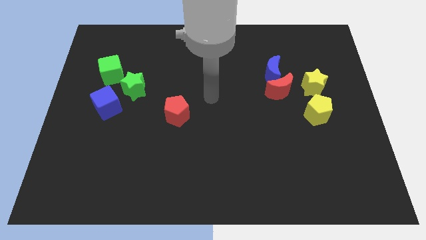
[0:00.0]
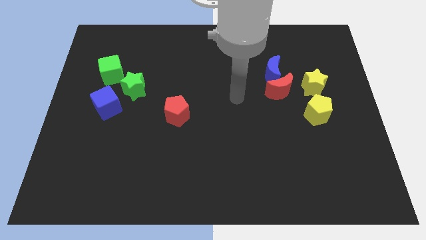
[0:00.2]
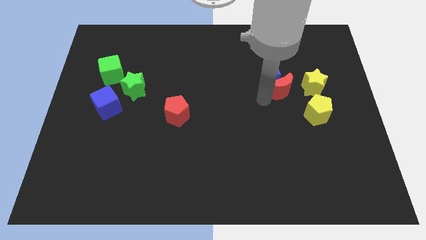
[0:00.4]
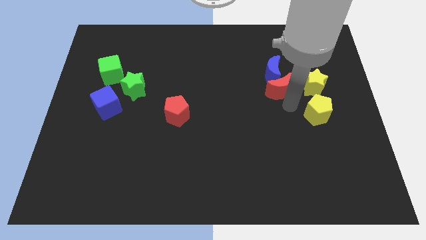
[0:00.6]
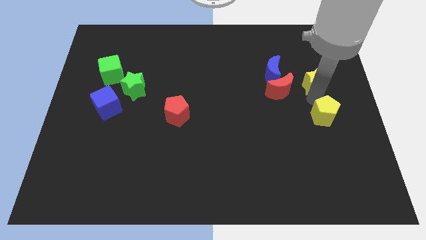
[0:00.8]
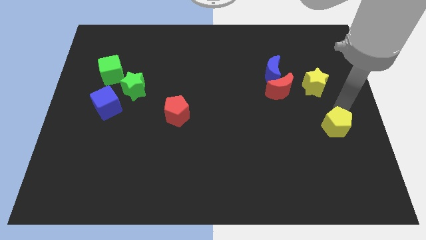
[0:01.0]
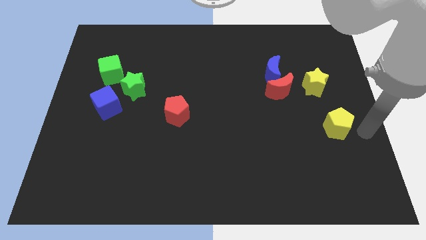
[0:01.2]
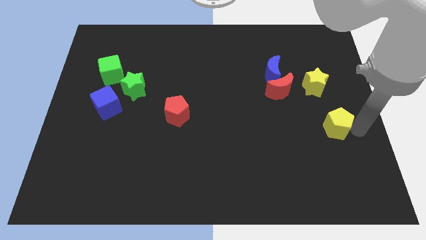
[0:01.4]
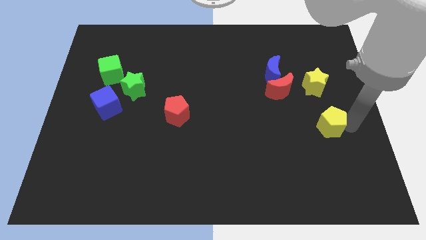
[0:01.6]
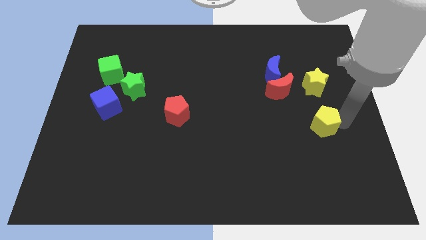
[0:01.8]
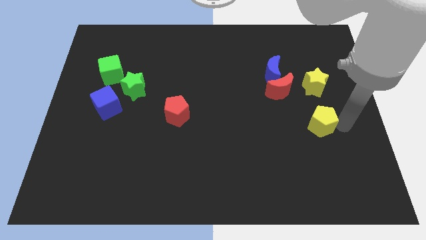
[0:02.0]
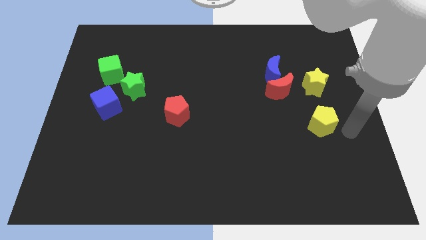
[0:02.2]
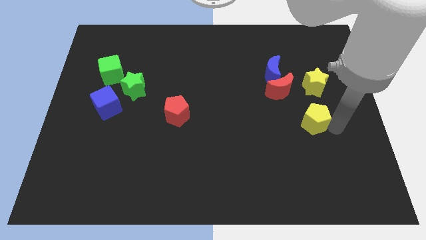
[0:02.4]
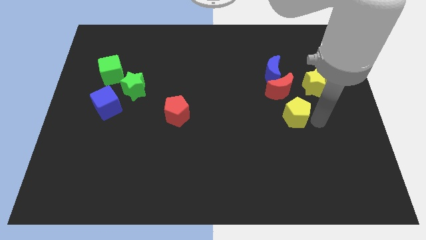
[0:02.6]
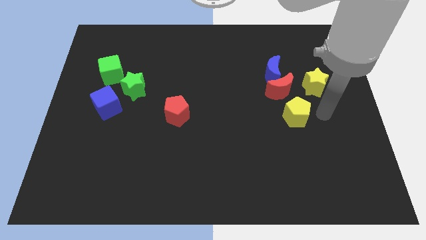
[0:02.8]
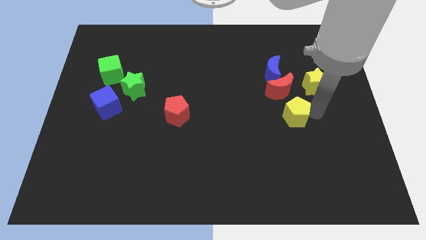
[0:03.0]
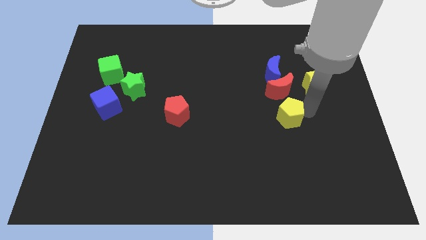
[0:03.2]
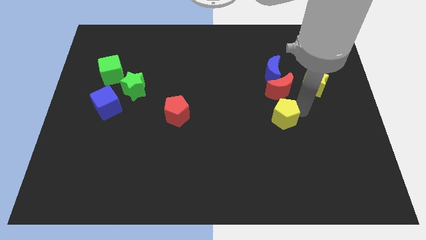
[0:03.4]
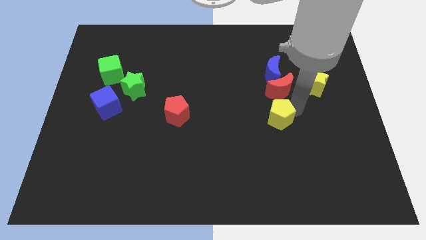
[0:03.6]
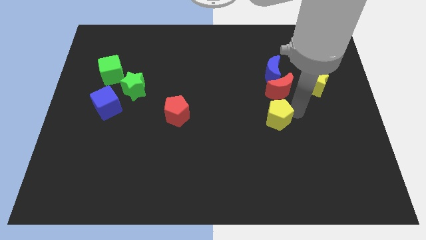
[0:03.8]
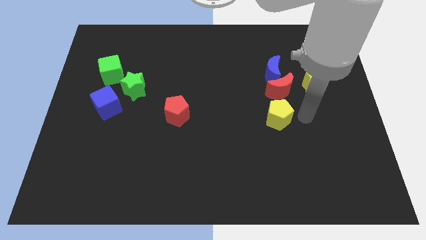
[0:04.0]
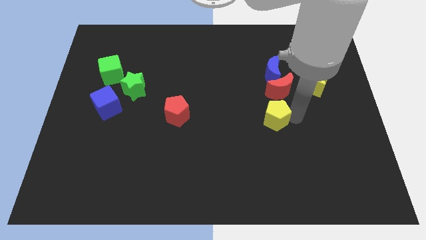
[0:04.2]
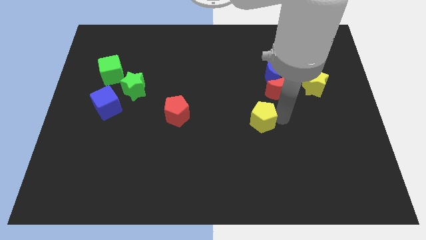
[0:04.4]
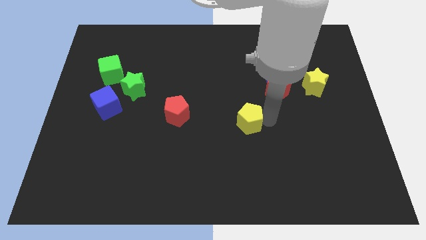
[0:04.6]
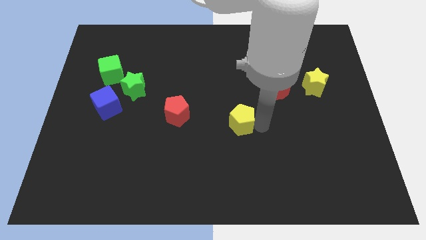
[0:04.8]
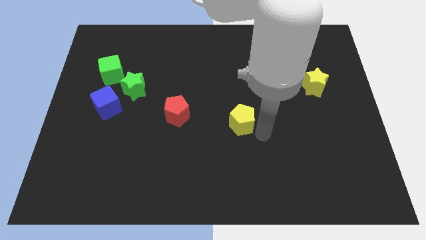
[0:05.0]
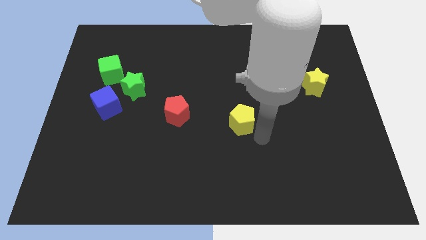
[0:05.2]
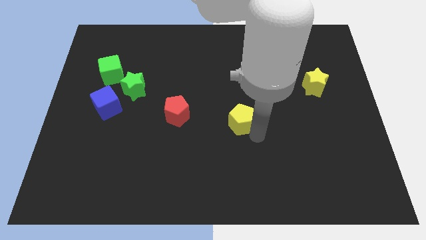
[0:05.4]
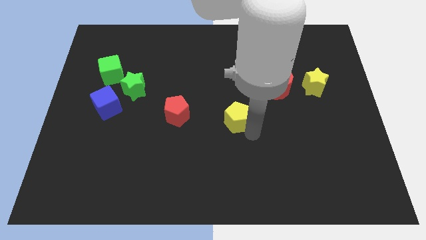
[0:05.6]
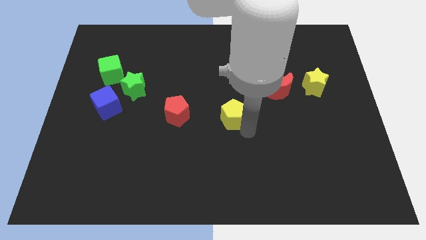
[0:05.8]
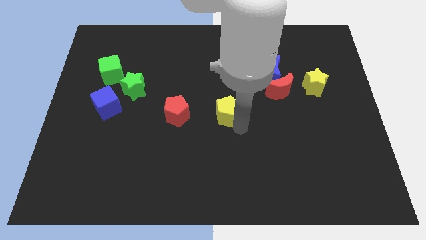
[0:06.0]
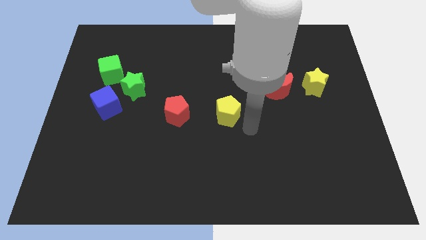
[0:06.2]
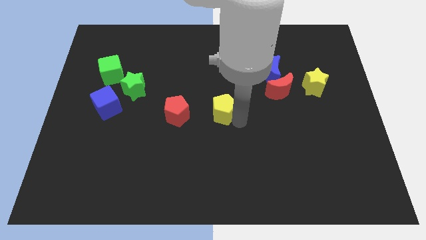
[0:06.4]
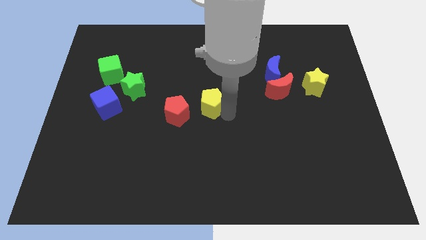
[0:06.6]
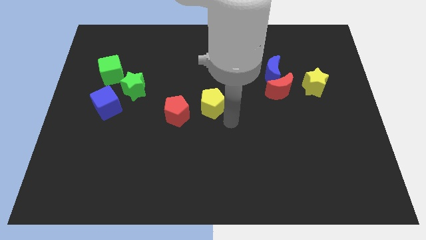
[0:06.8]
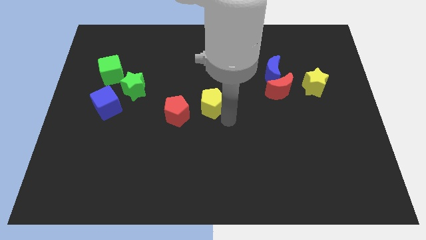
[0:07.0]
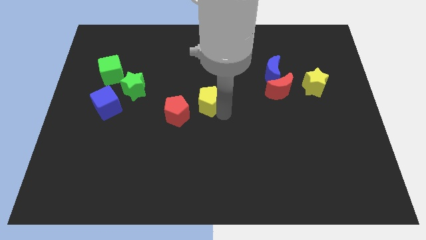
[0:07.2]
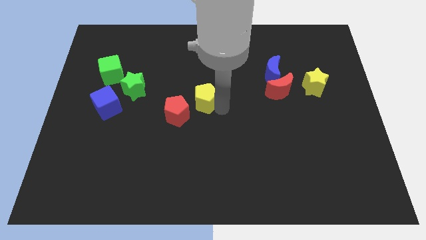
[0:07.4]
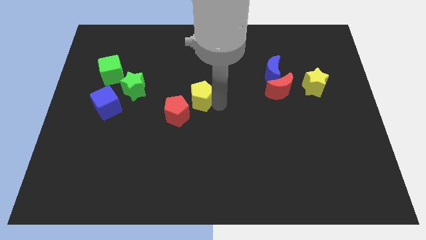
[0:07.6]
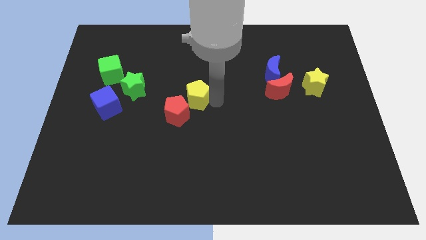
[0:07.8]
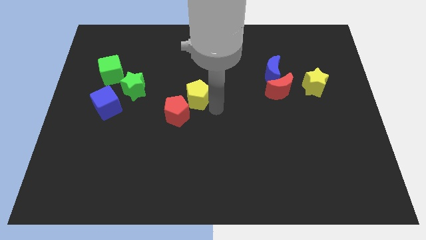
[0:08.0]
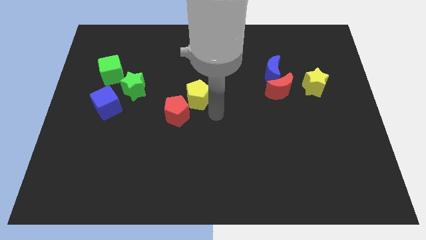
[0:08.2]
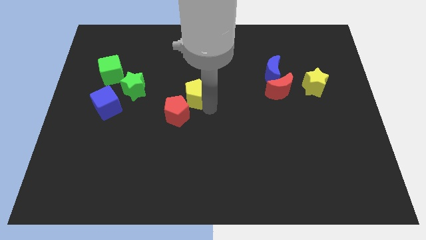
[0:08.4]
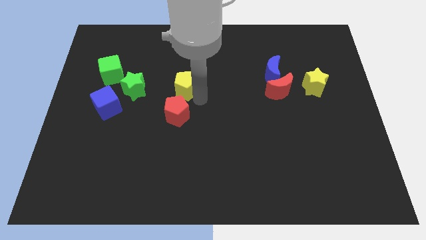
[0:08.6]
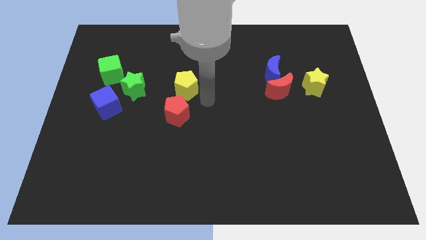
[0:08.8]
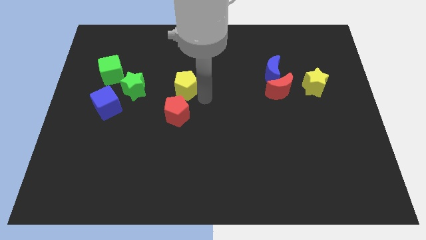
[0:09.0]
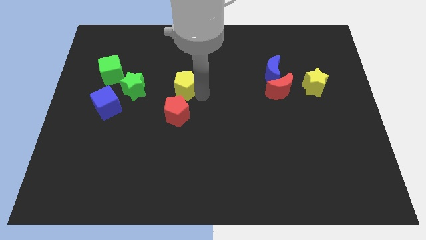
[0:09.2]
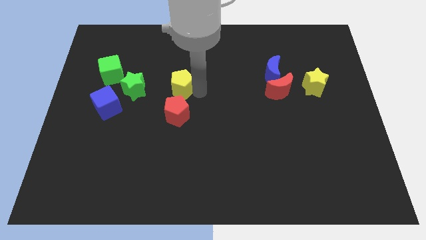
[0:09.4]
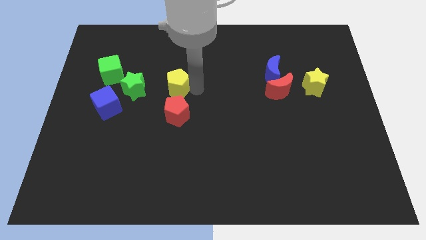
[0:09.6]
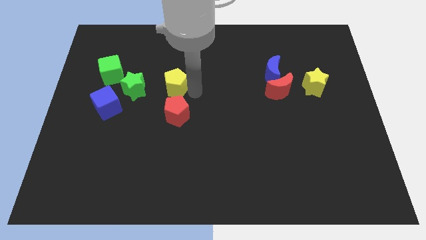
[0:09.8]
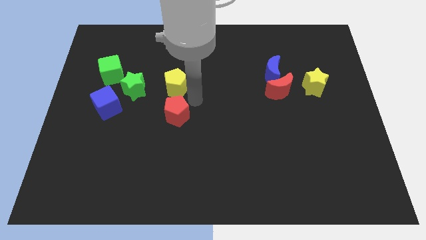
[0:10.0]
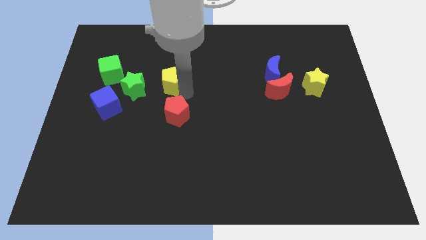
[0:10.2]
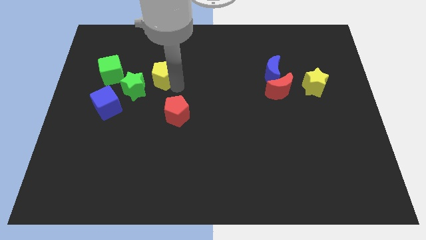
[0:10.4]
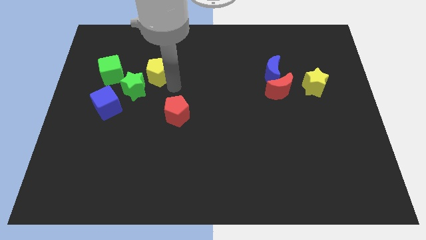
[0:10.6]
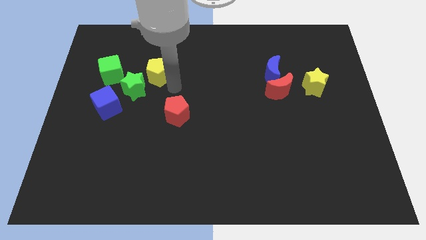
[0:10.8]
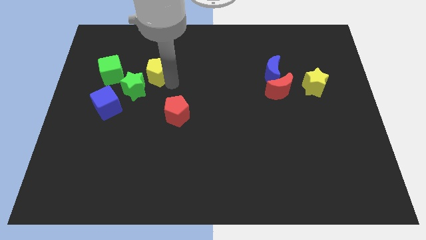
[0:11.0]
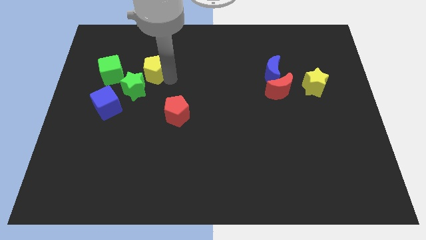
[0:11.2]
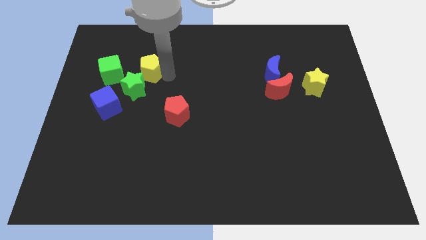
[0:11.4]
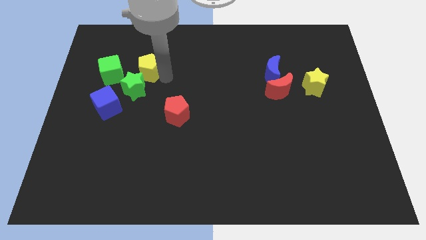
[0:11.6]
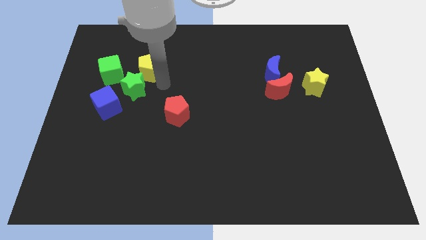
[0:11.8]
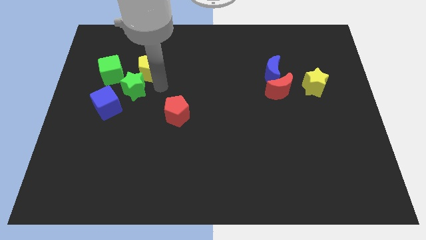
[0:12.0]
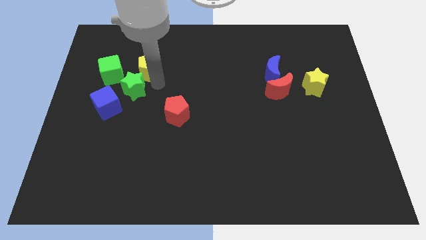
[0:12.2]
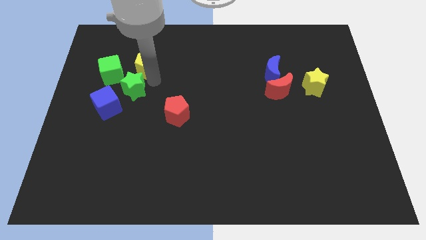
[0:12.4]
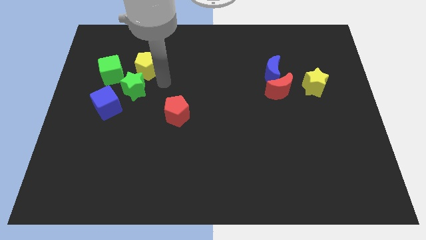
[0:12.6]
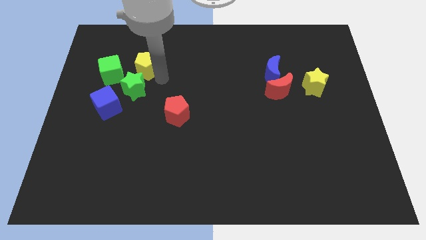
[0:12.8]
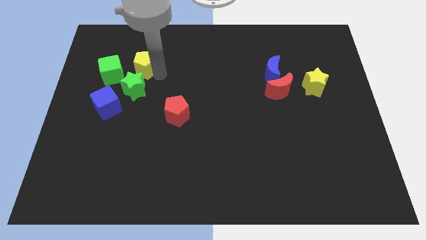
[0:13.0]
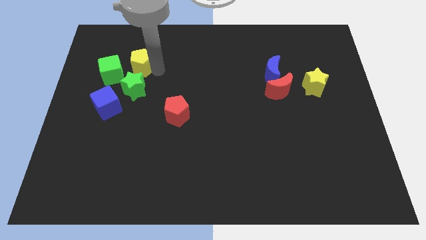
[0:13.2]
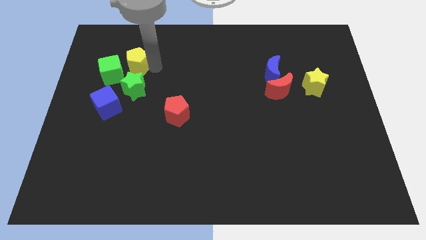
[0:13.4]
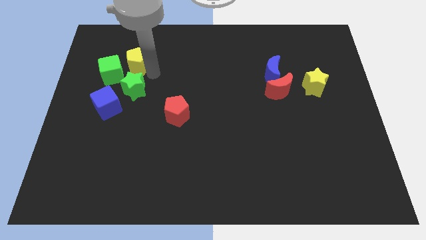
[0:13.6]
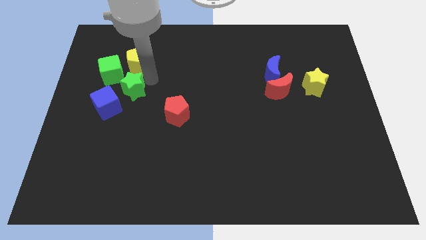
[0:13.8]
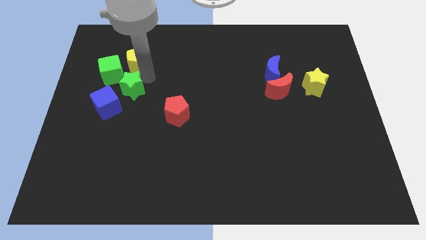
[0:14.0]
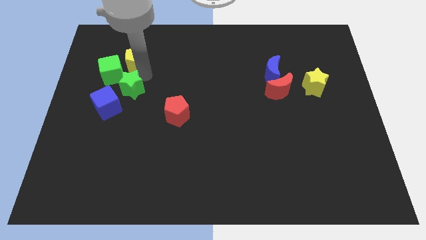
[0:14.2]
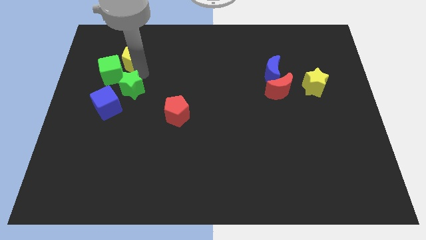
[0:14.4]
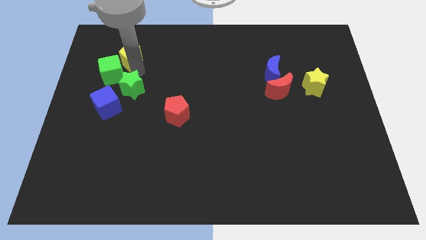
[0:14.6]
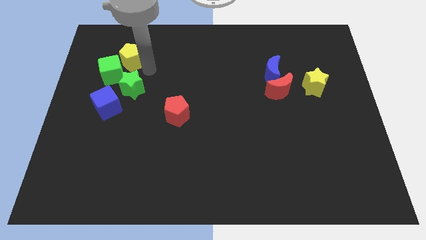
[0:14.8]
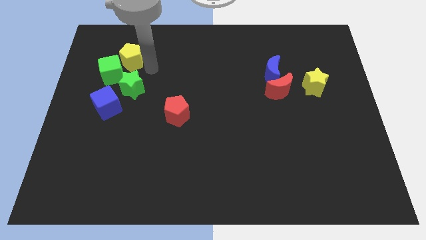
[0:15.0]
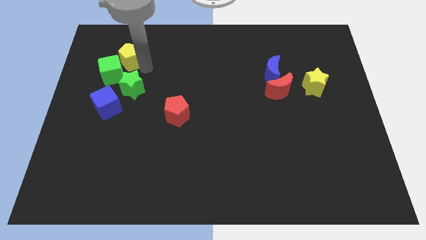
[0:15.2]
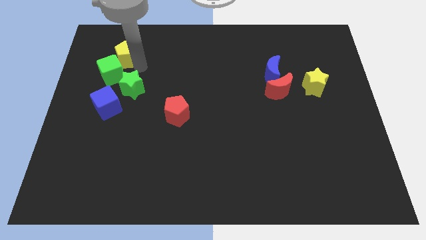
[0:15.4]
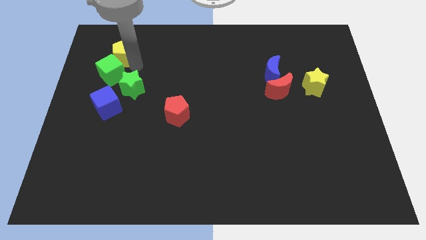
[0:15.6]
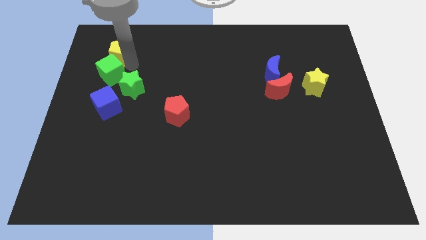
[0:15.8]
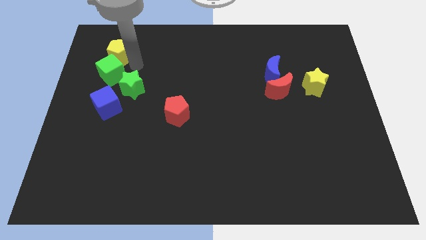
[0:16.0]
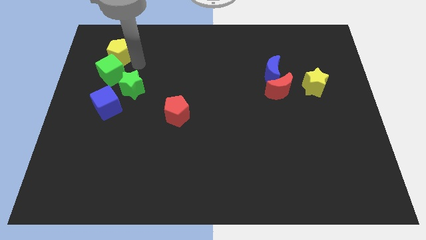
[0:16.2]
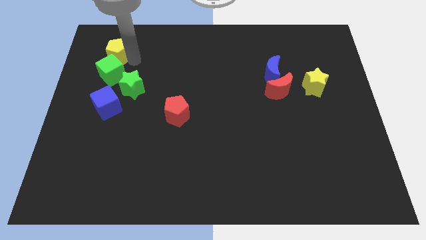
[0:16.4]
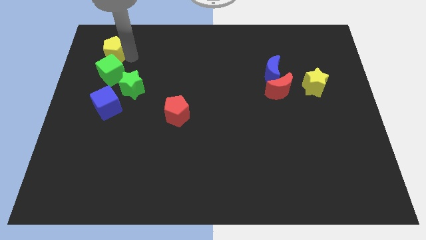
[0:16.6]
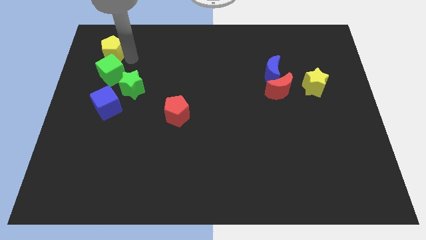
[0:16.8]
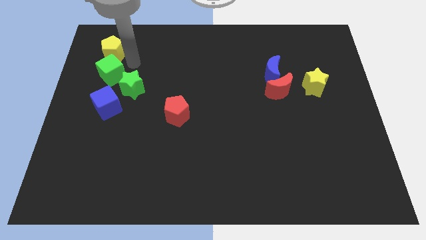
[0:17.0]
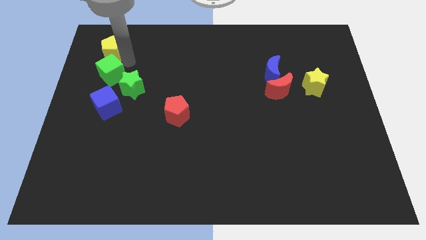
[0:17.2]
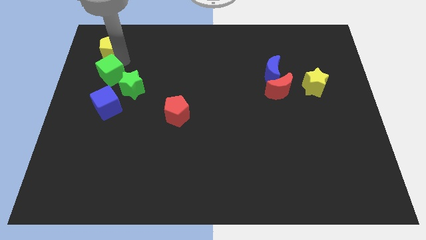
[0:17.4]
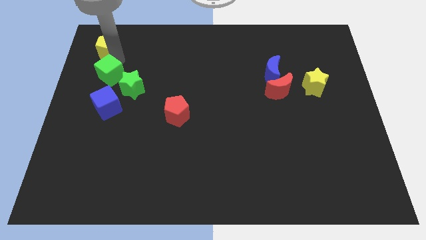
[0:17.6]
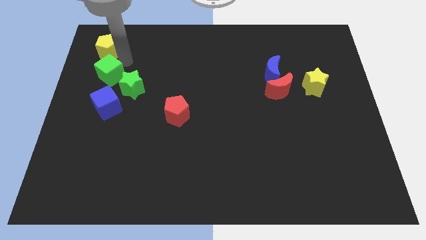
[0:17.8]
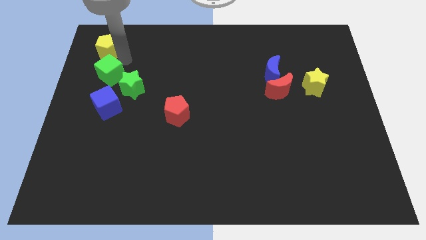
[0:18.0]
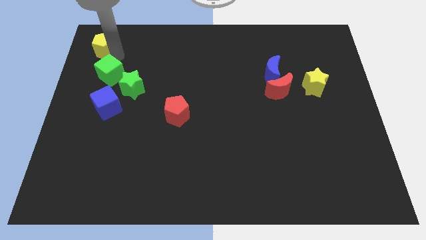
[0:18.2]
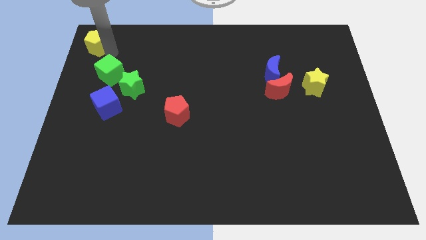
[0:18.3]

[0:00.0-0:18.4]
push the yellow pentagon to the top left corner
